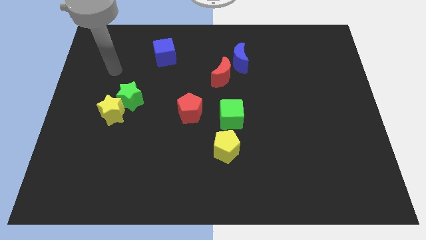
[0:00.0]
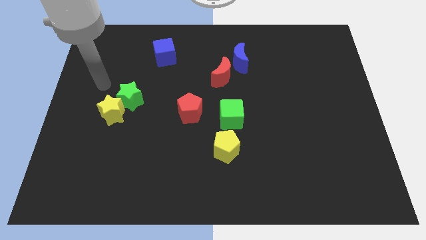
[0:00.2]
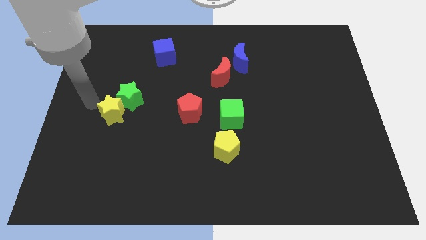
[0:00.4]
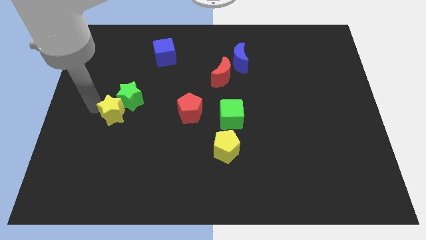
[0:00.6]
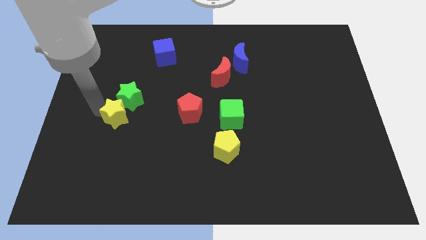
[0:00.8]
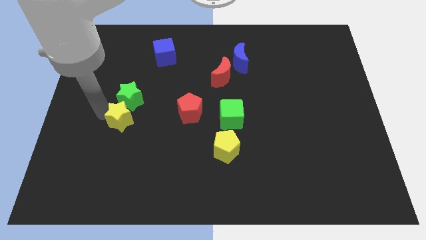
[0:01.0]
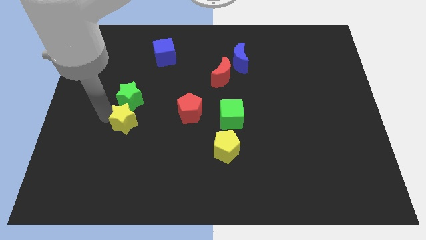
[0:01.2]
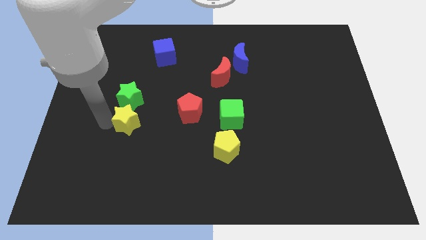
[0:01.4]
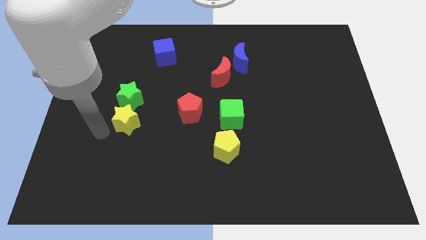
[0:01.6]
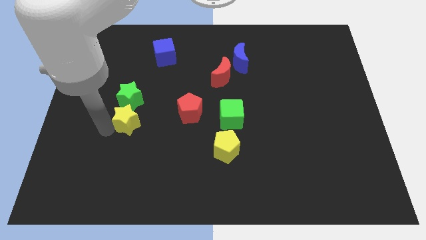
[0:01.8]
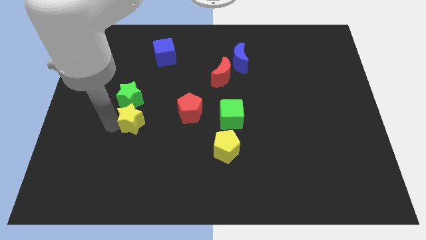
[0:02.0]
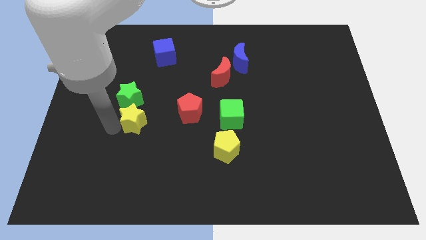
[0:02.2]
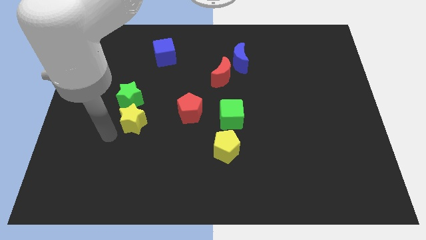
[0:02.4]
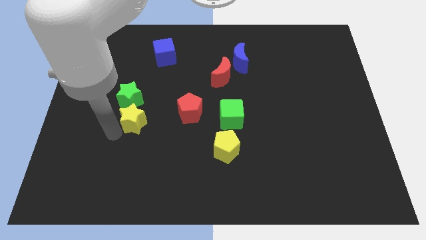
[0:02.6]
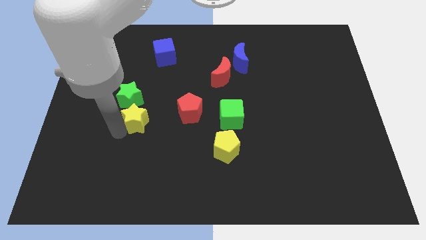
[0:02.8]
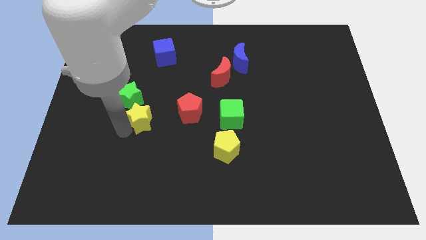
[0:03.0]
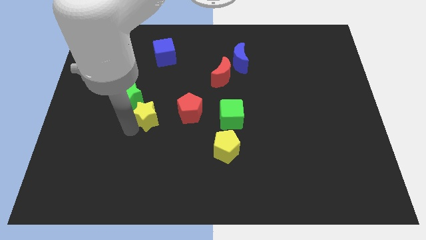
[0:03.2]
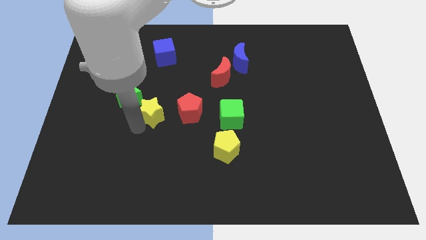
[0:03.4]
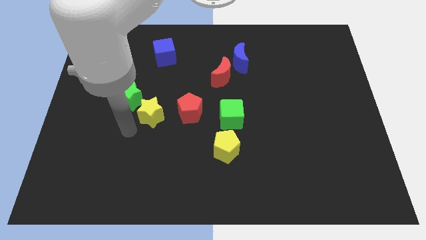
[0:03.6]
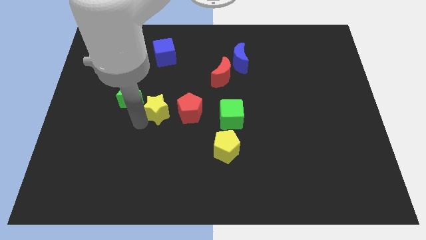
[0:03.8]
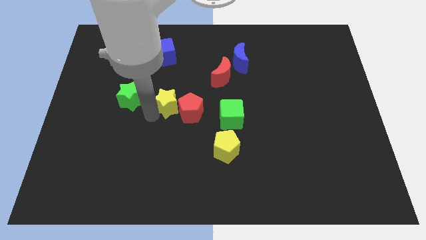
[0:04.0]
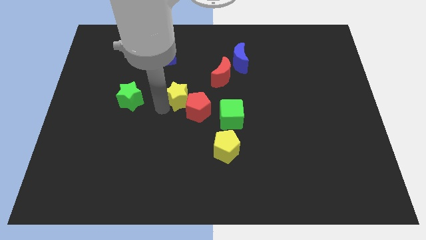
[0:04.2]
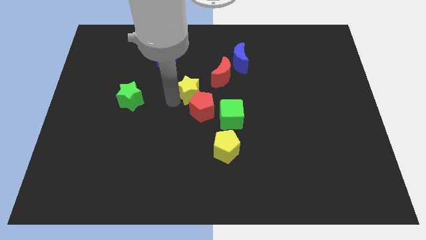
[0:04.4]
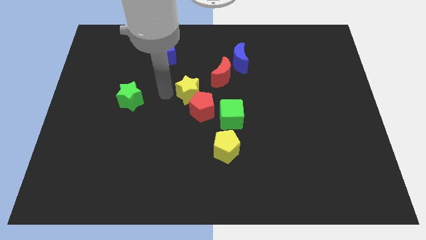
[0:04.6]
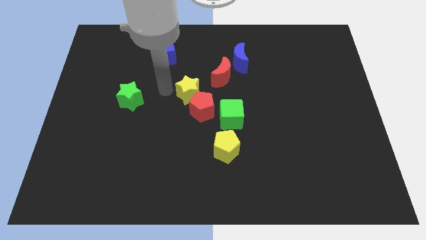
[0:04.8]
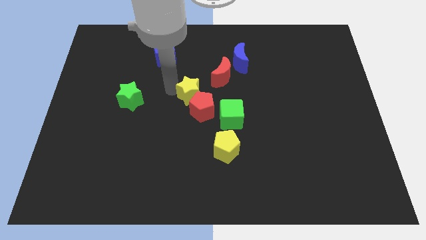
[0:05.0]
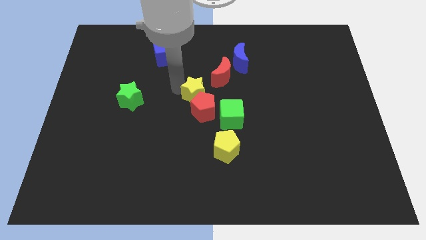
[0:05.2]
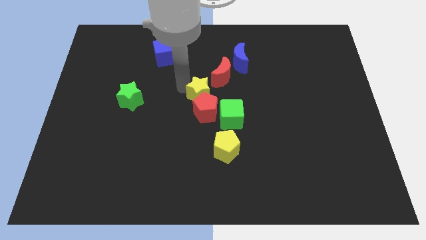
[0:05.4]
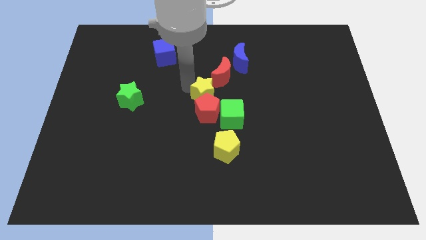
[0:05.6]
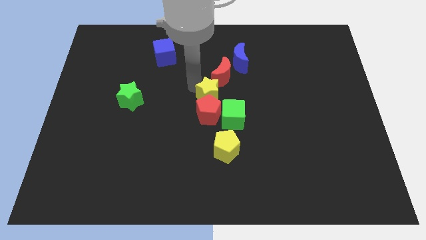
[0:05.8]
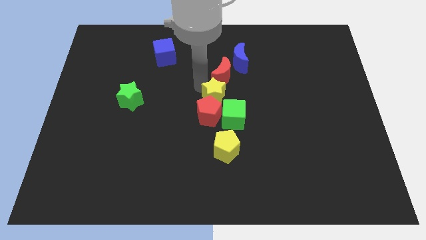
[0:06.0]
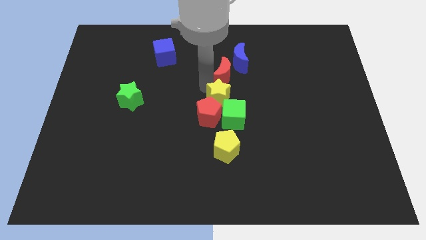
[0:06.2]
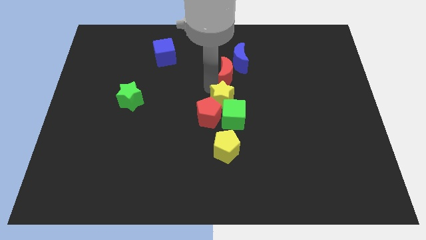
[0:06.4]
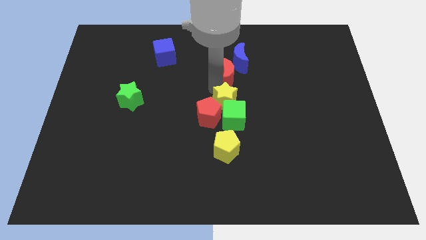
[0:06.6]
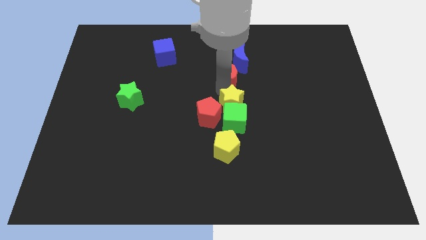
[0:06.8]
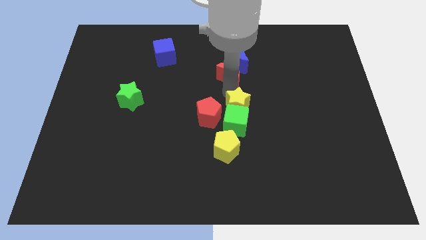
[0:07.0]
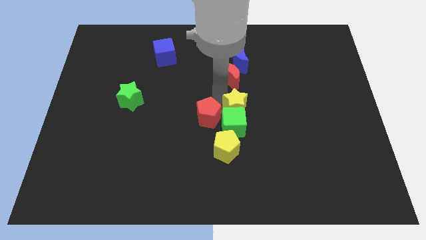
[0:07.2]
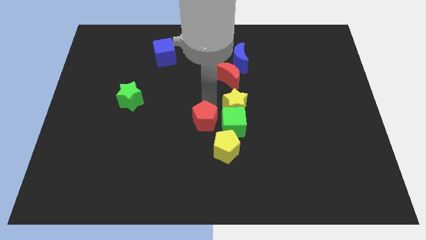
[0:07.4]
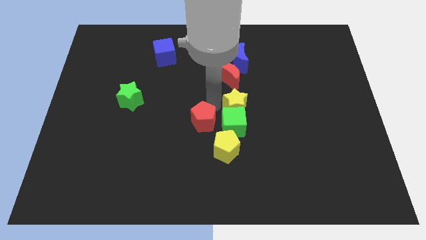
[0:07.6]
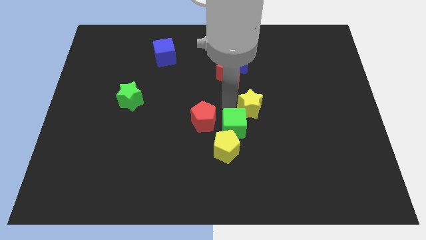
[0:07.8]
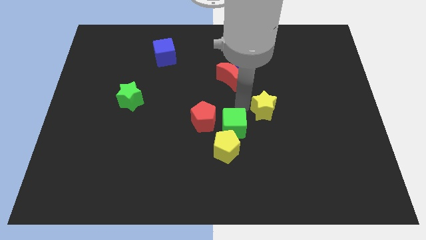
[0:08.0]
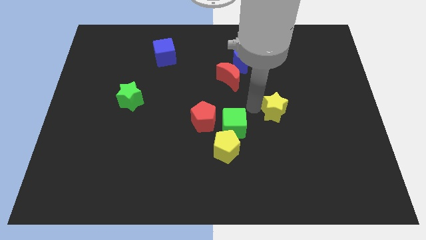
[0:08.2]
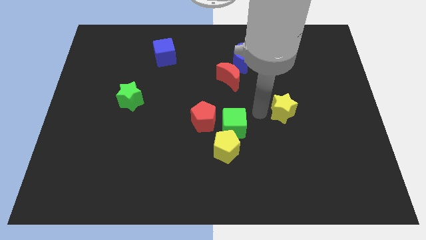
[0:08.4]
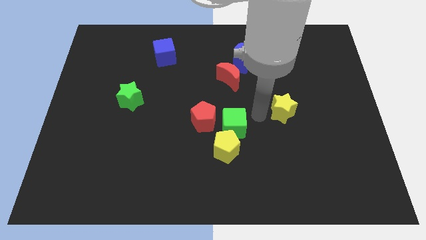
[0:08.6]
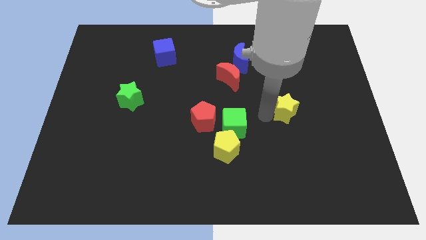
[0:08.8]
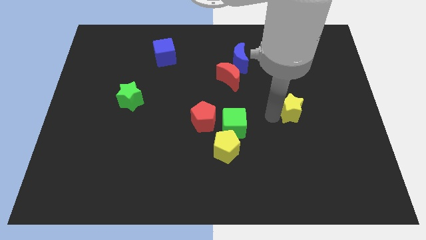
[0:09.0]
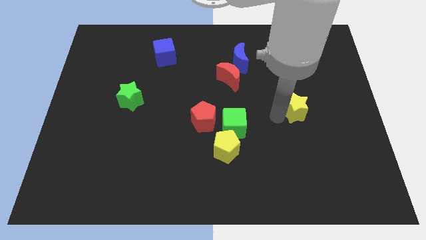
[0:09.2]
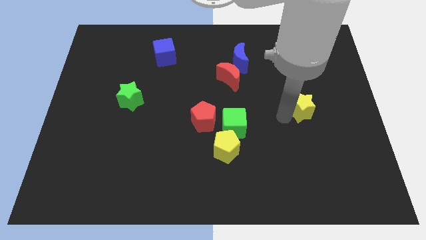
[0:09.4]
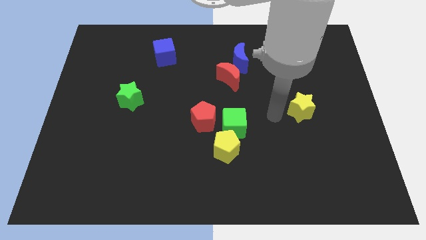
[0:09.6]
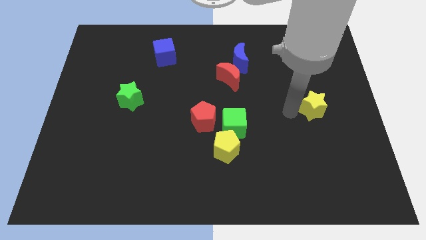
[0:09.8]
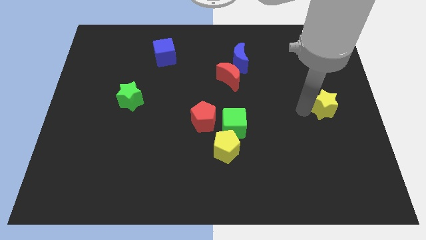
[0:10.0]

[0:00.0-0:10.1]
slide the yellow star to the right side

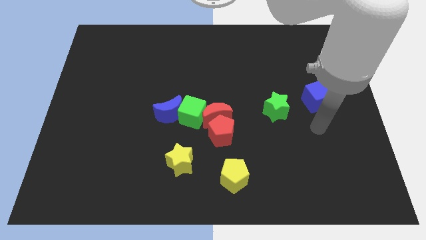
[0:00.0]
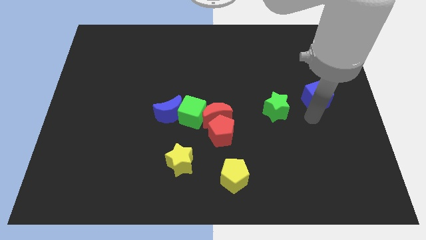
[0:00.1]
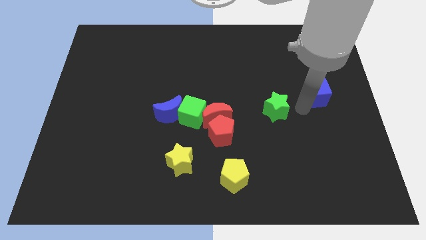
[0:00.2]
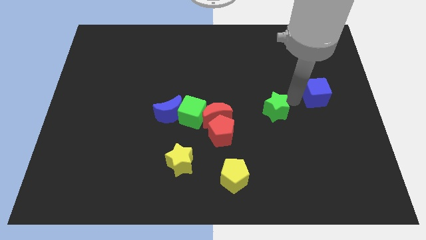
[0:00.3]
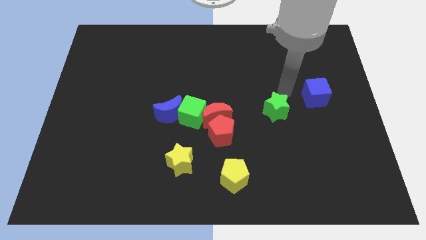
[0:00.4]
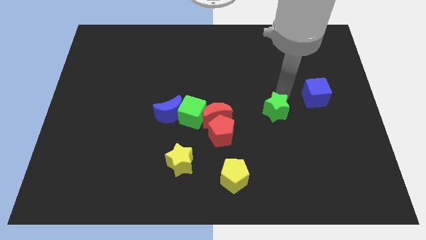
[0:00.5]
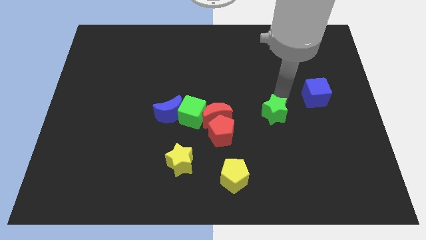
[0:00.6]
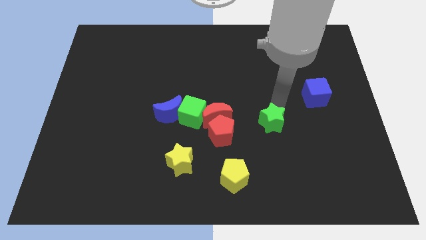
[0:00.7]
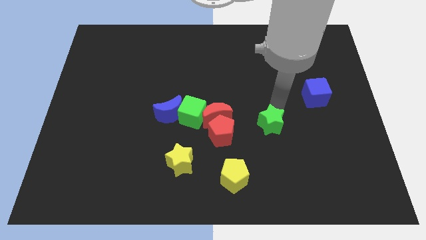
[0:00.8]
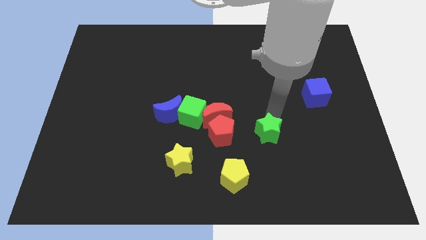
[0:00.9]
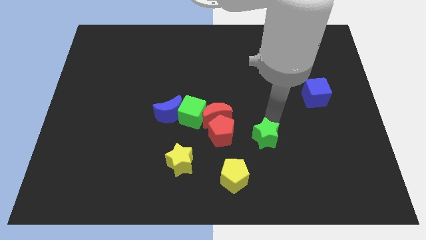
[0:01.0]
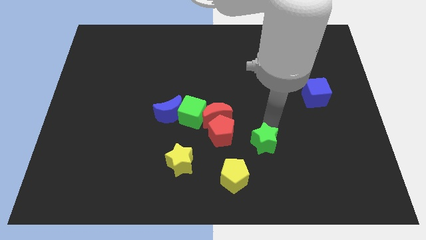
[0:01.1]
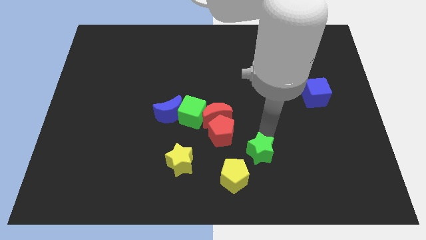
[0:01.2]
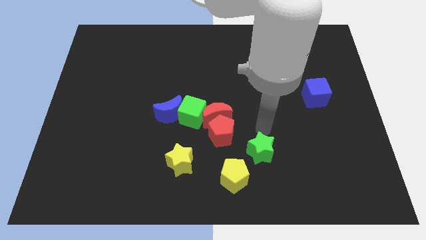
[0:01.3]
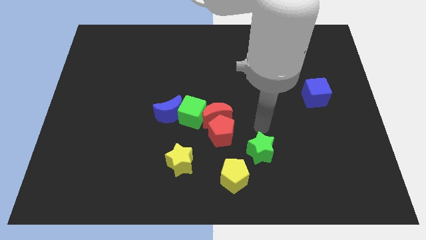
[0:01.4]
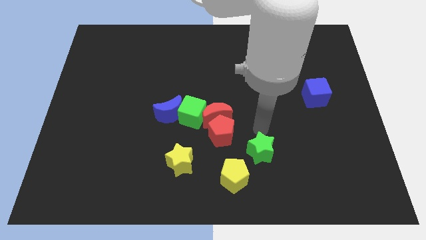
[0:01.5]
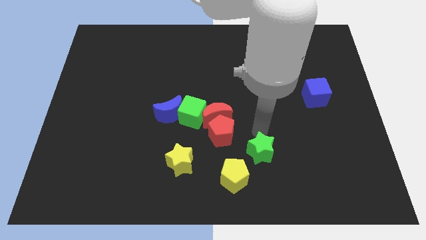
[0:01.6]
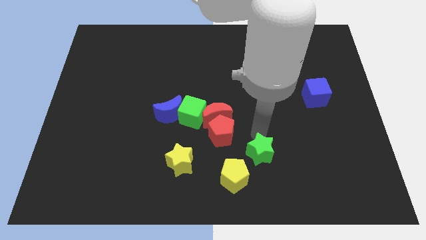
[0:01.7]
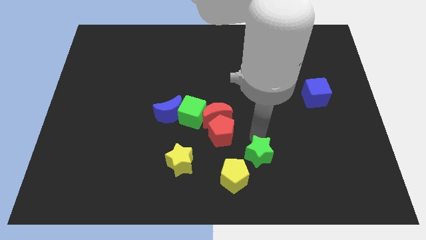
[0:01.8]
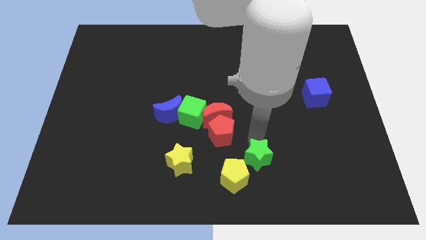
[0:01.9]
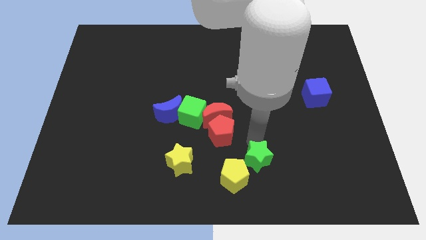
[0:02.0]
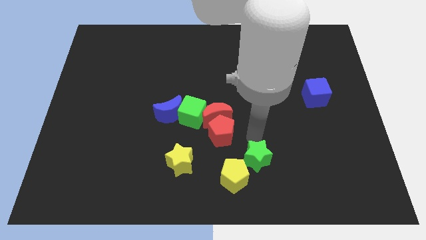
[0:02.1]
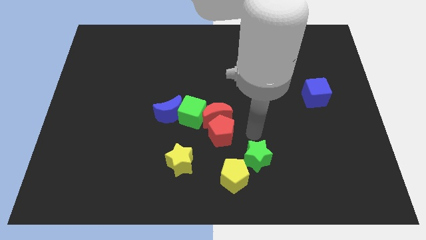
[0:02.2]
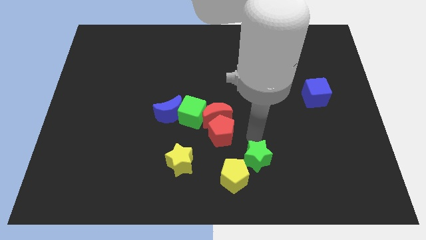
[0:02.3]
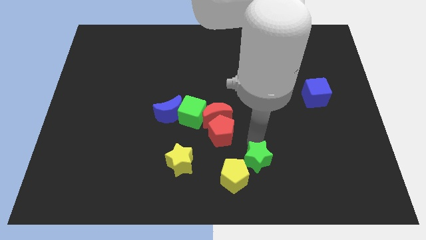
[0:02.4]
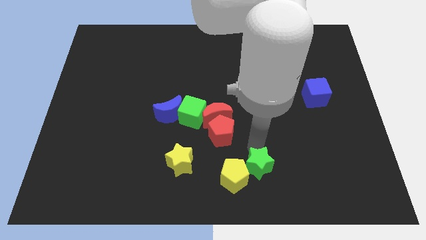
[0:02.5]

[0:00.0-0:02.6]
put the green star to the bottom

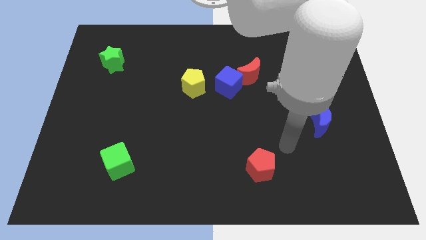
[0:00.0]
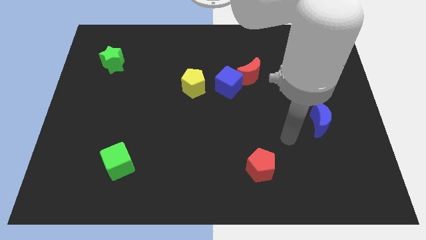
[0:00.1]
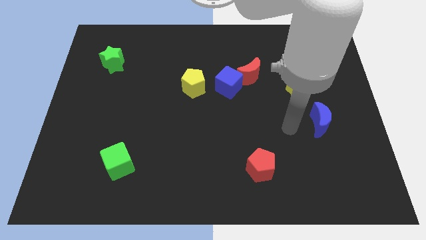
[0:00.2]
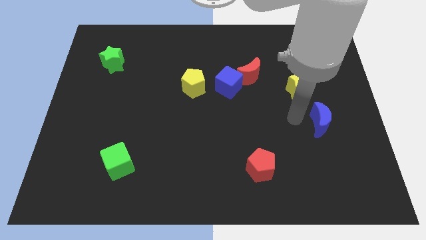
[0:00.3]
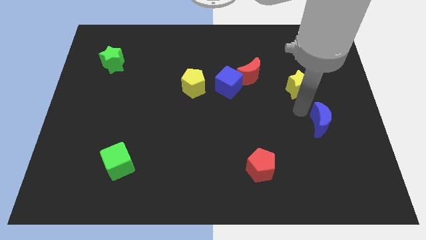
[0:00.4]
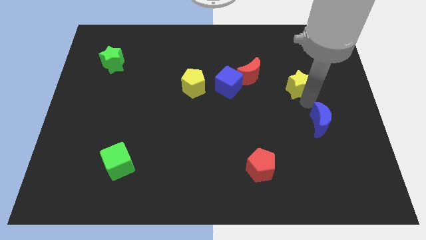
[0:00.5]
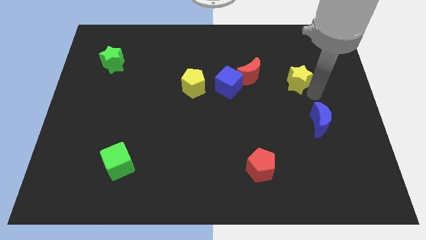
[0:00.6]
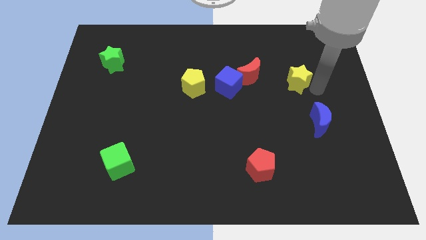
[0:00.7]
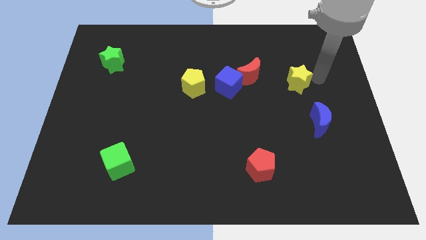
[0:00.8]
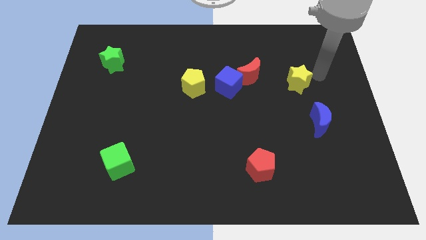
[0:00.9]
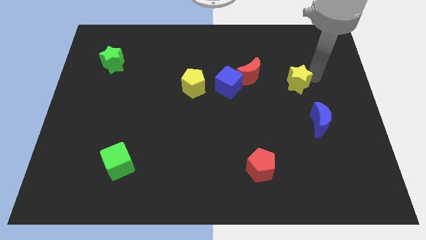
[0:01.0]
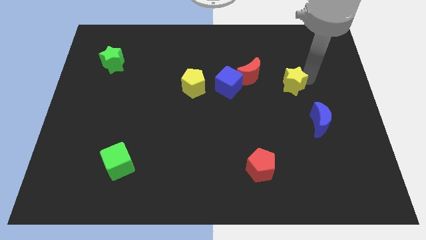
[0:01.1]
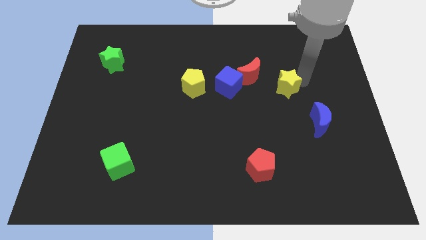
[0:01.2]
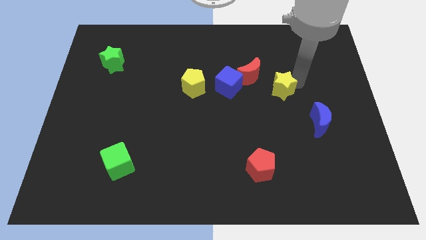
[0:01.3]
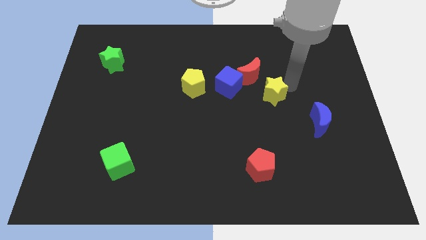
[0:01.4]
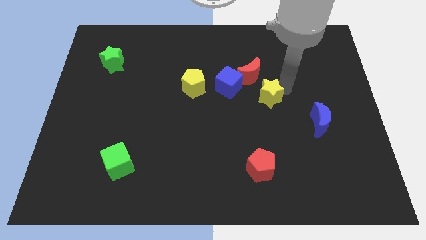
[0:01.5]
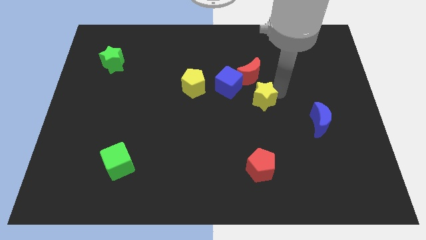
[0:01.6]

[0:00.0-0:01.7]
slide the yellow star to the center of the board
